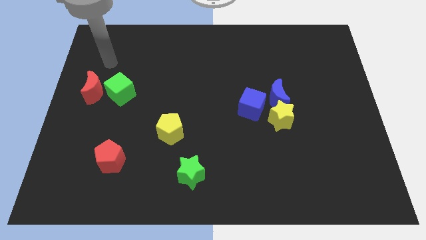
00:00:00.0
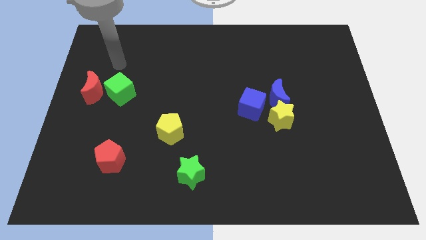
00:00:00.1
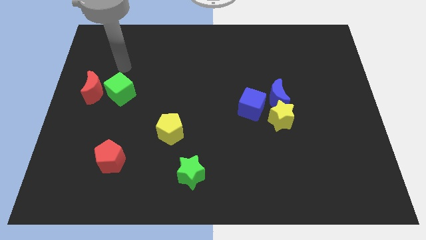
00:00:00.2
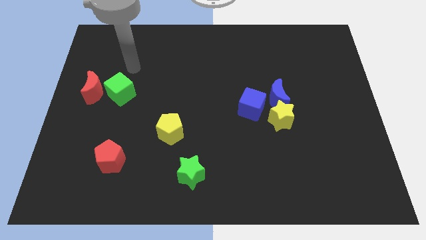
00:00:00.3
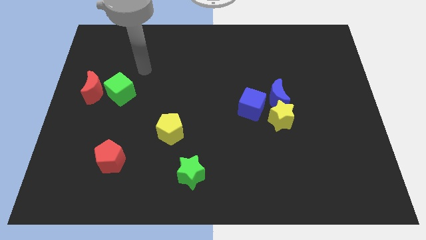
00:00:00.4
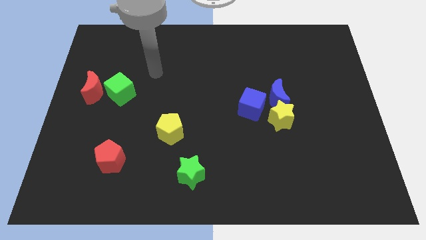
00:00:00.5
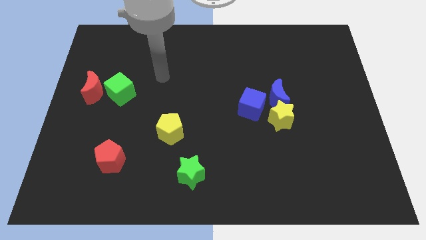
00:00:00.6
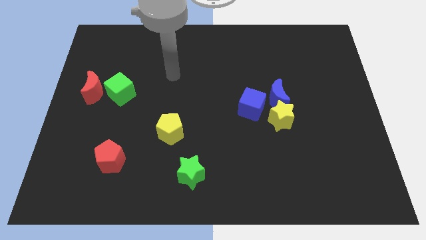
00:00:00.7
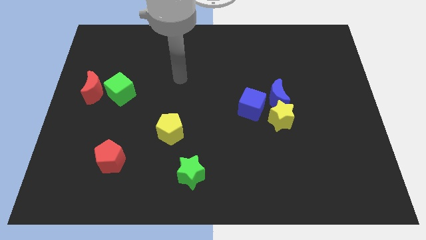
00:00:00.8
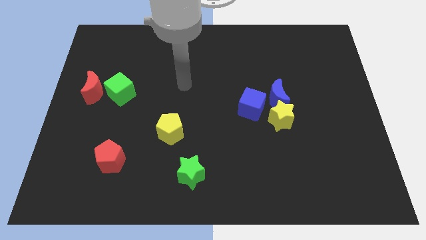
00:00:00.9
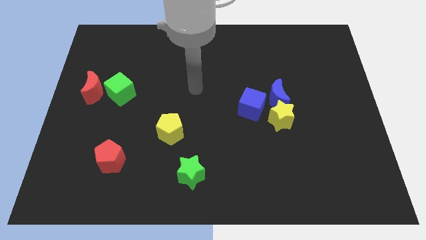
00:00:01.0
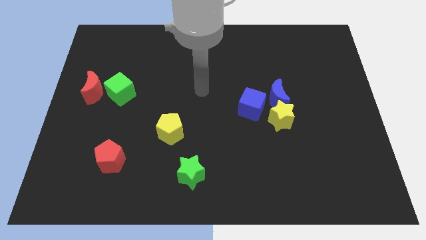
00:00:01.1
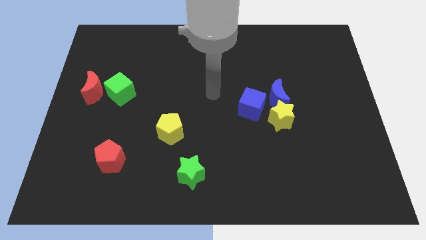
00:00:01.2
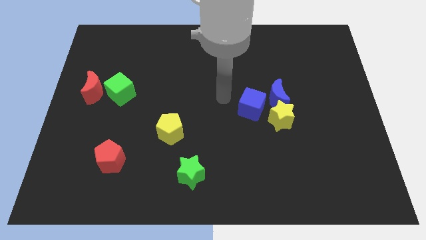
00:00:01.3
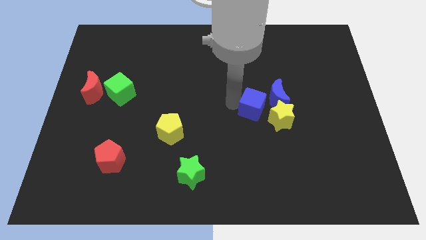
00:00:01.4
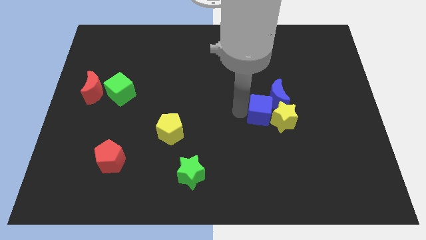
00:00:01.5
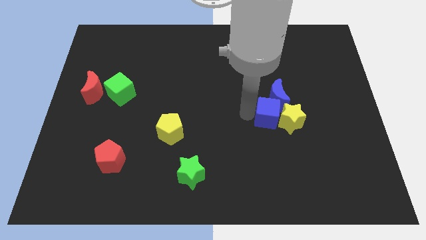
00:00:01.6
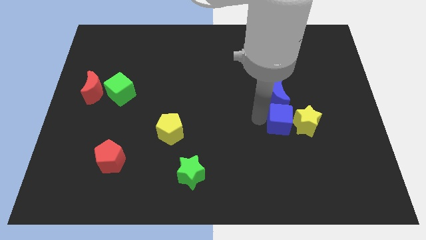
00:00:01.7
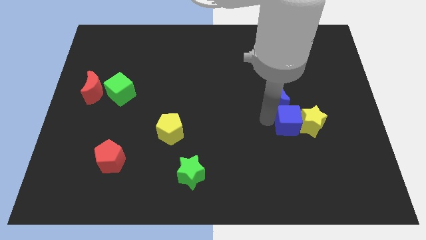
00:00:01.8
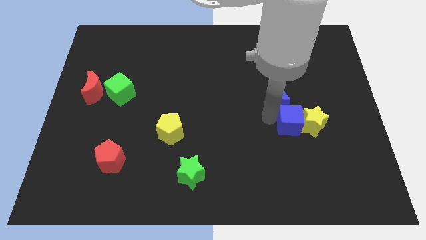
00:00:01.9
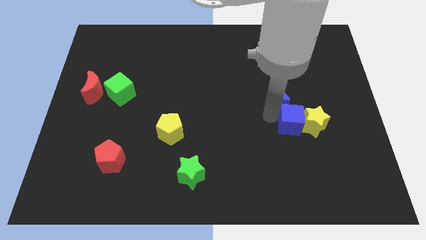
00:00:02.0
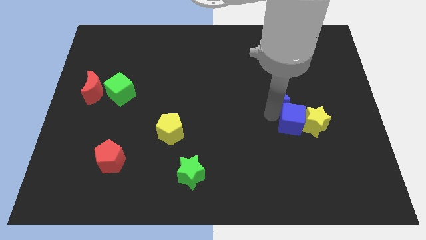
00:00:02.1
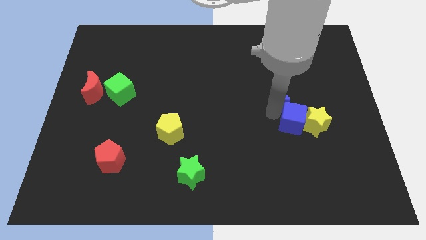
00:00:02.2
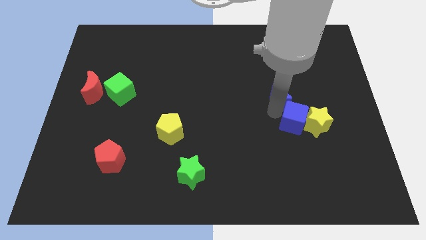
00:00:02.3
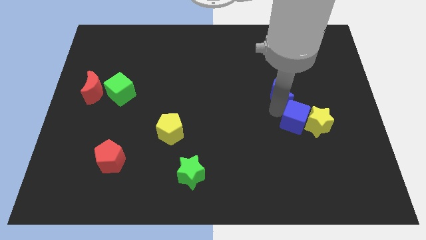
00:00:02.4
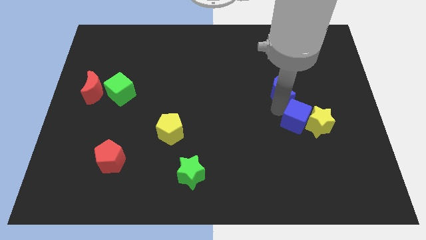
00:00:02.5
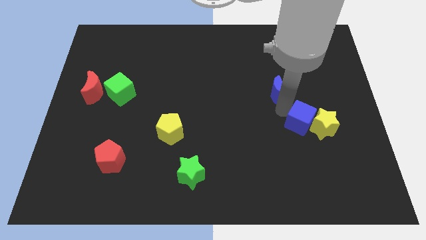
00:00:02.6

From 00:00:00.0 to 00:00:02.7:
separate the blue moon from the yellow star and blue cube

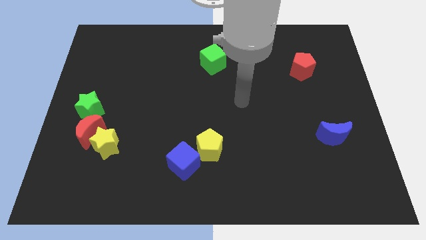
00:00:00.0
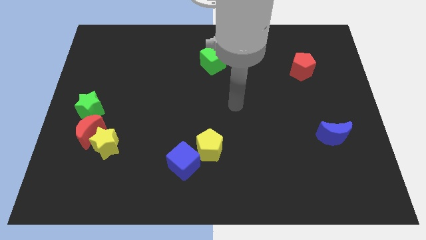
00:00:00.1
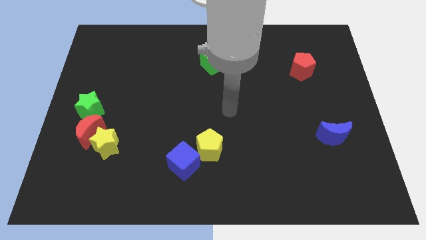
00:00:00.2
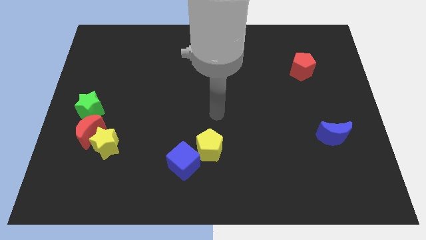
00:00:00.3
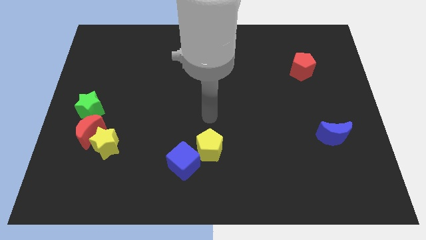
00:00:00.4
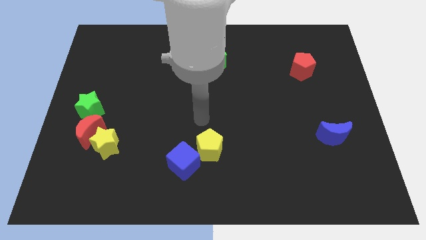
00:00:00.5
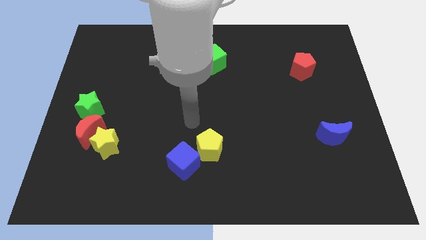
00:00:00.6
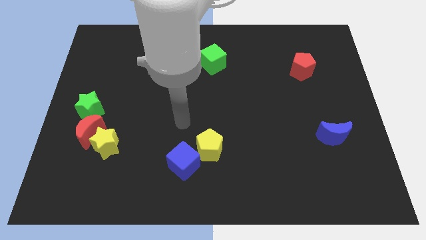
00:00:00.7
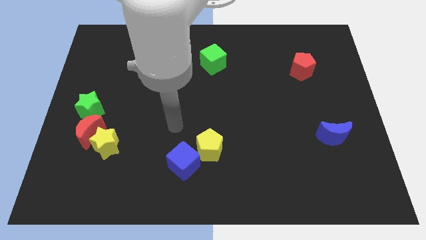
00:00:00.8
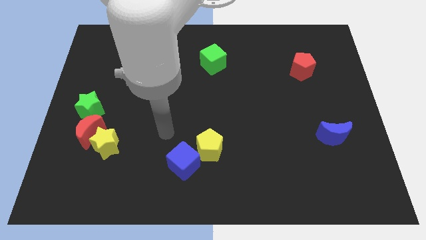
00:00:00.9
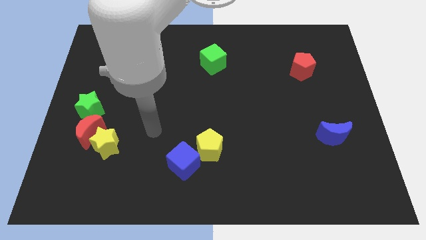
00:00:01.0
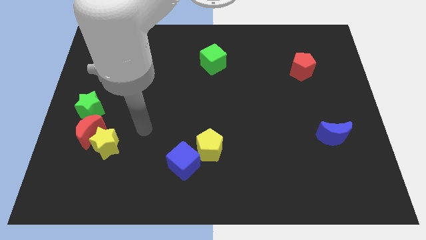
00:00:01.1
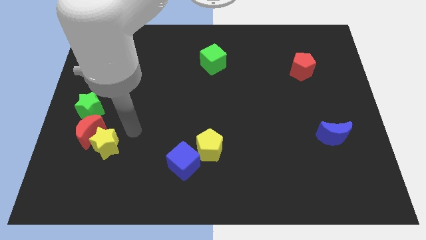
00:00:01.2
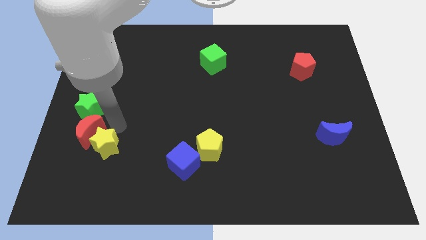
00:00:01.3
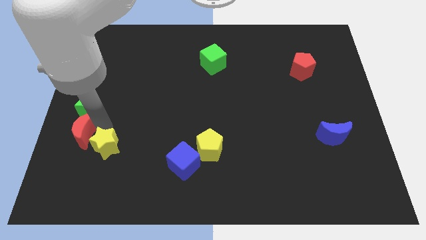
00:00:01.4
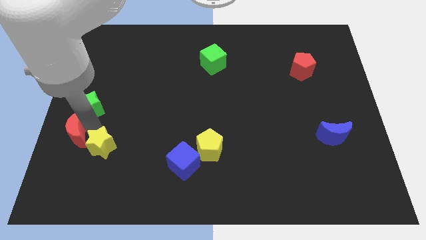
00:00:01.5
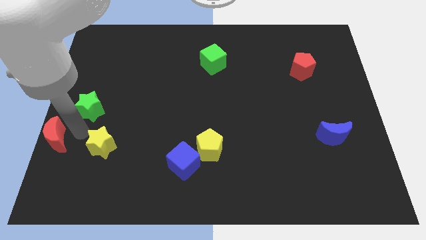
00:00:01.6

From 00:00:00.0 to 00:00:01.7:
pull the yellow star apart from the red moon

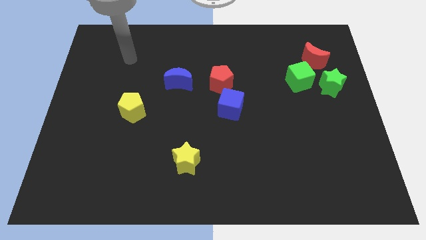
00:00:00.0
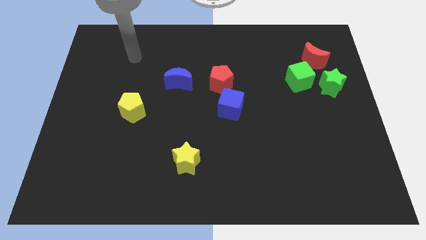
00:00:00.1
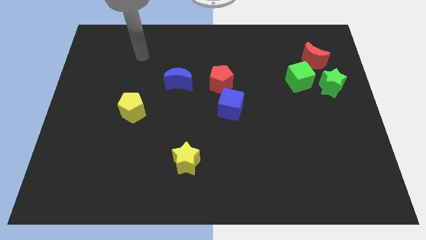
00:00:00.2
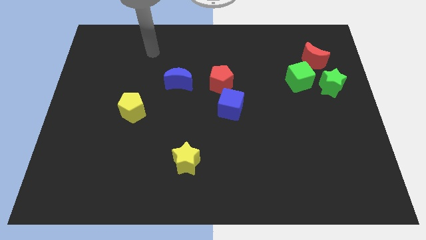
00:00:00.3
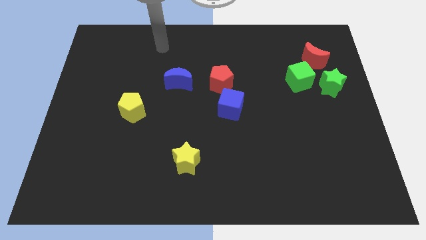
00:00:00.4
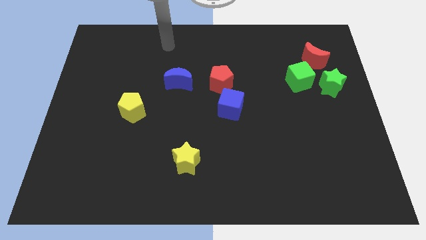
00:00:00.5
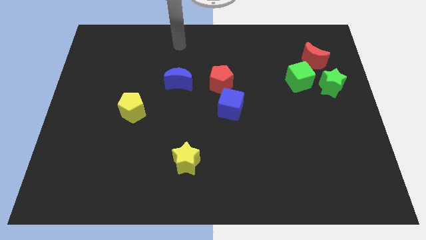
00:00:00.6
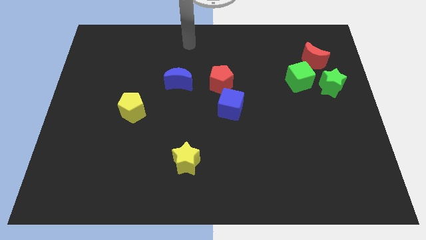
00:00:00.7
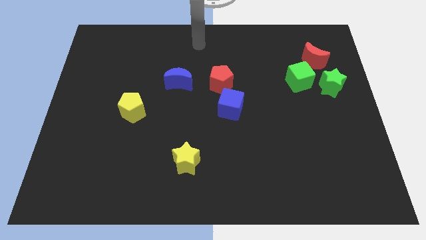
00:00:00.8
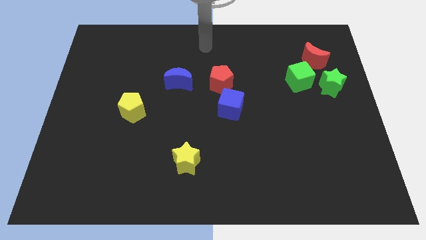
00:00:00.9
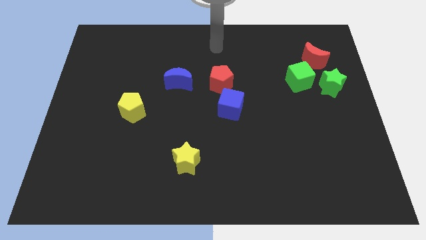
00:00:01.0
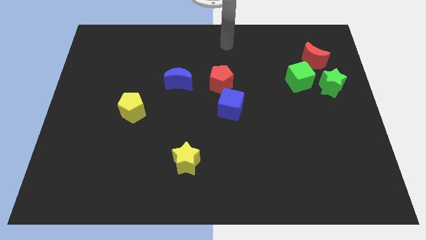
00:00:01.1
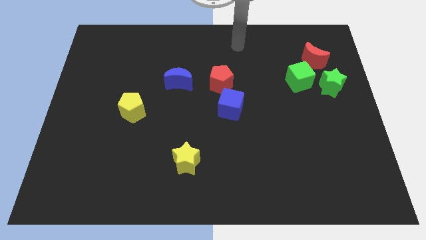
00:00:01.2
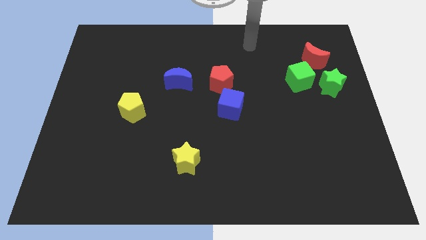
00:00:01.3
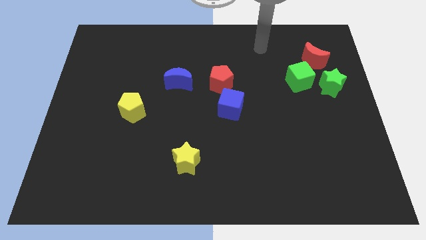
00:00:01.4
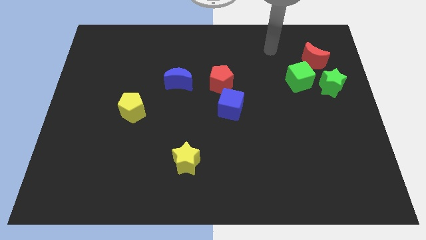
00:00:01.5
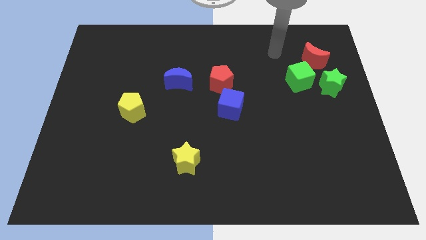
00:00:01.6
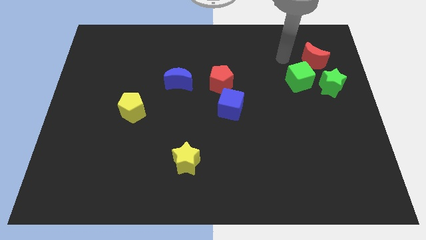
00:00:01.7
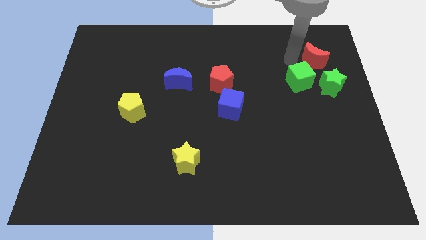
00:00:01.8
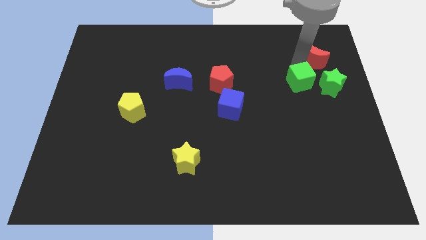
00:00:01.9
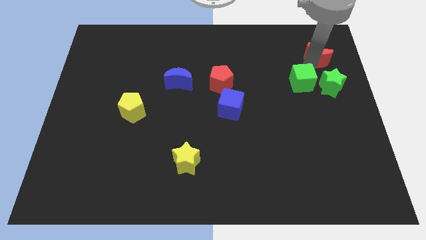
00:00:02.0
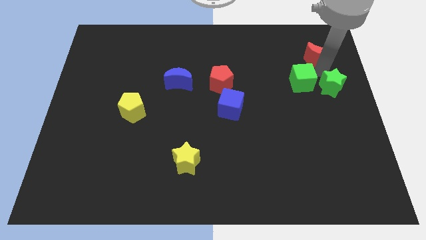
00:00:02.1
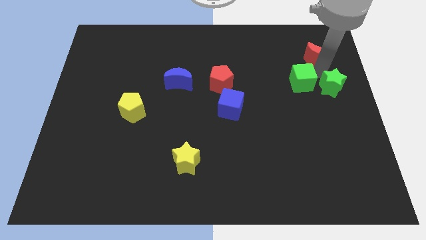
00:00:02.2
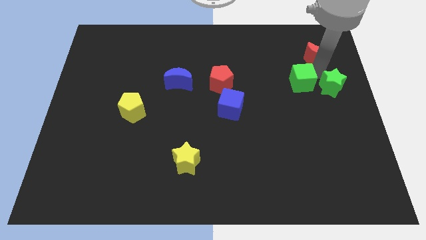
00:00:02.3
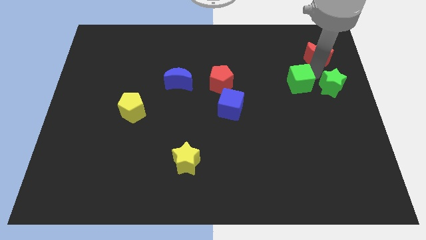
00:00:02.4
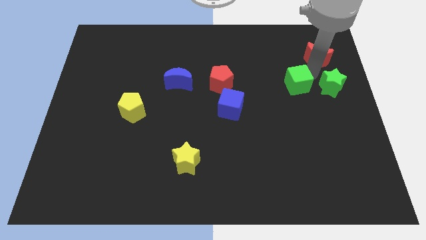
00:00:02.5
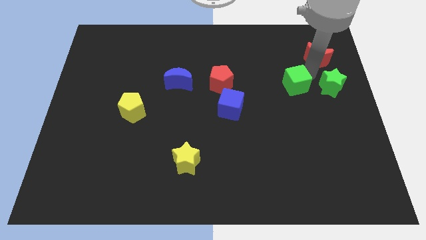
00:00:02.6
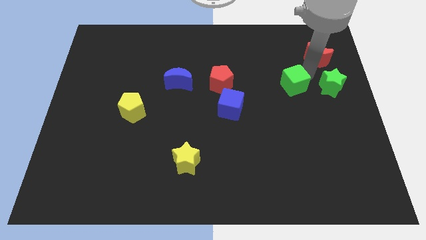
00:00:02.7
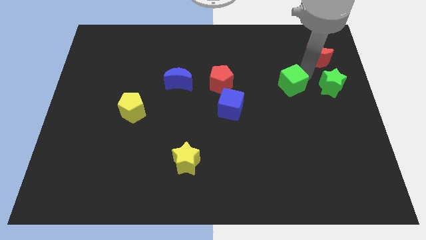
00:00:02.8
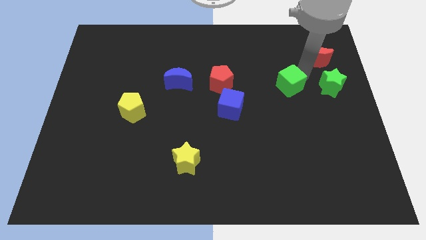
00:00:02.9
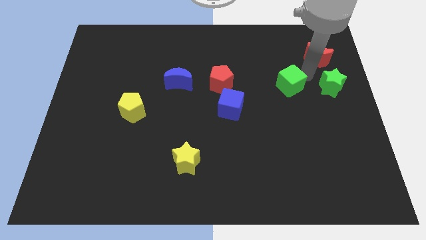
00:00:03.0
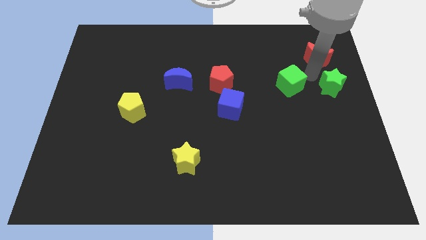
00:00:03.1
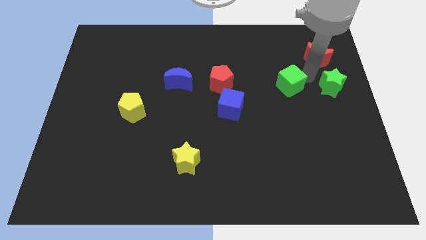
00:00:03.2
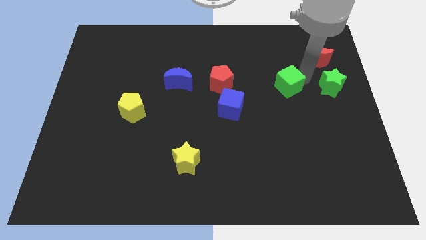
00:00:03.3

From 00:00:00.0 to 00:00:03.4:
move the green cube away from the green star and red moon

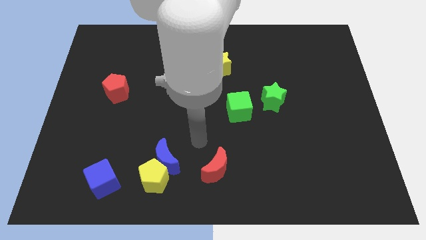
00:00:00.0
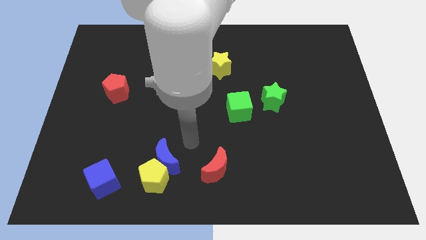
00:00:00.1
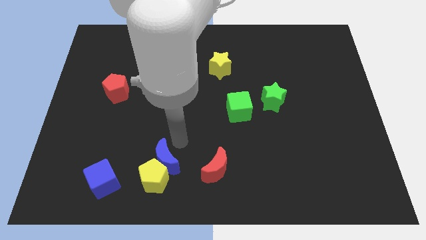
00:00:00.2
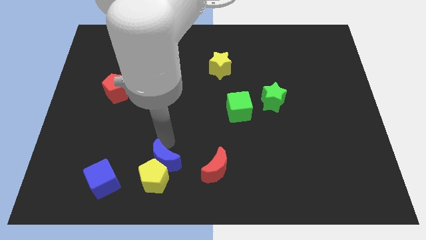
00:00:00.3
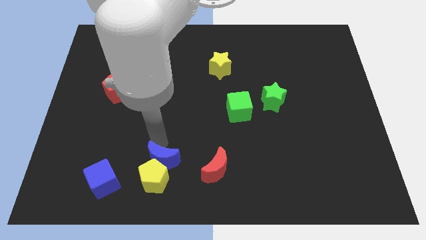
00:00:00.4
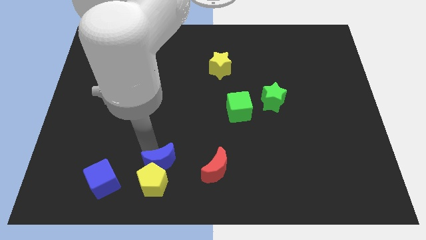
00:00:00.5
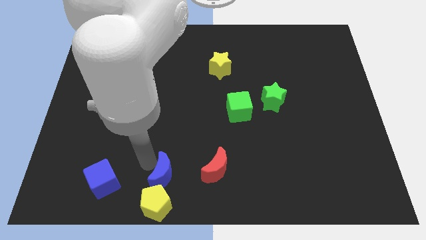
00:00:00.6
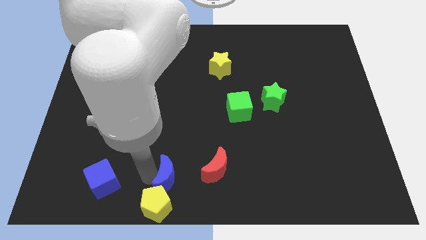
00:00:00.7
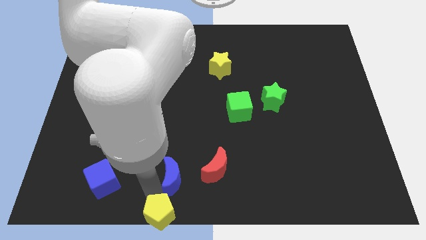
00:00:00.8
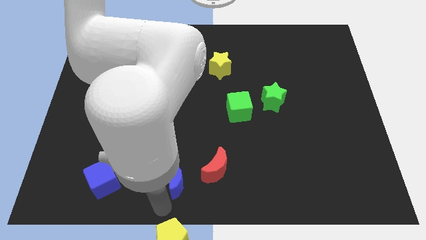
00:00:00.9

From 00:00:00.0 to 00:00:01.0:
separate the blue moon from the yellow pentagon

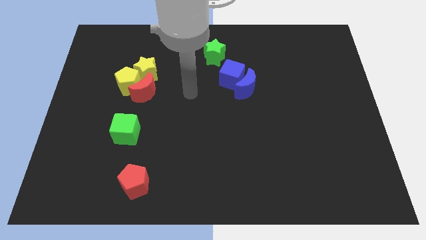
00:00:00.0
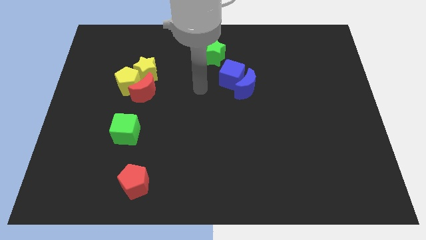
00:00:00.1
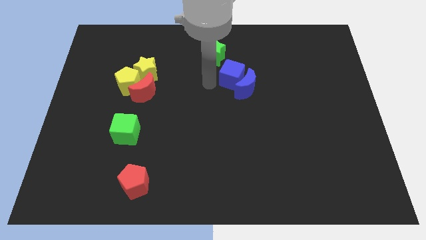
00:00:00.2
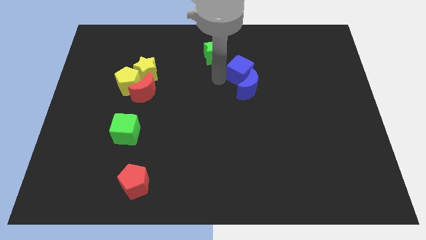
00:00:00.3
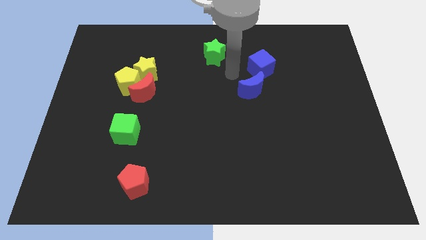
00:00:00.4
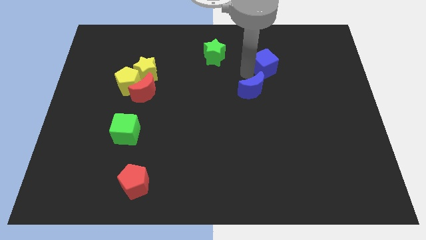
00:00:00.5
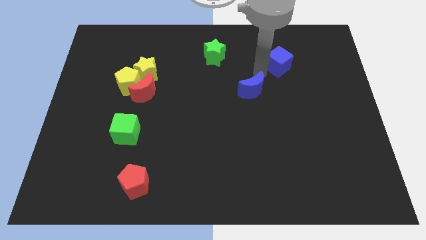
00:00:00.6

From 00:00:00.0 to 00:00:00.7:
move the blue moon away from the blue cube
